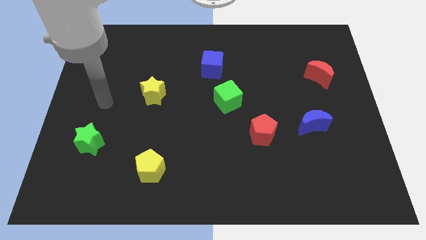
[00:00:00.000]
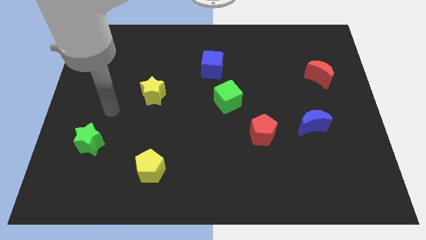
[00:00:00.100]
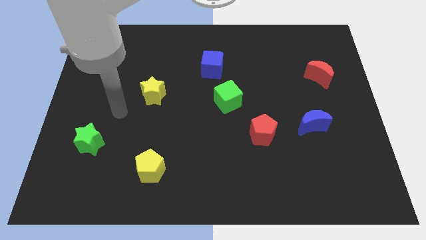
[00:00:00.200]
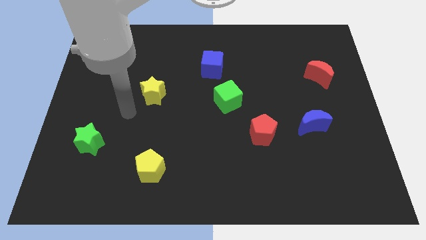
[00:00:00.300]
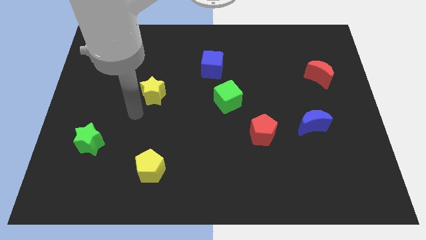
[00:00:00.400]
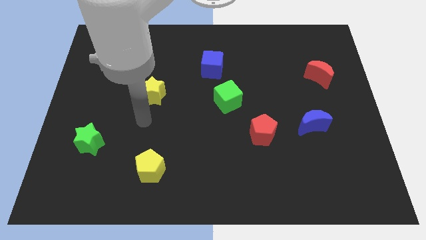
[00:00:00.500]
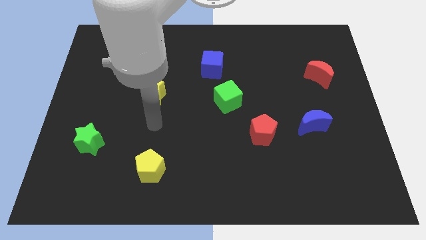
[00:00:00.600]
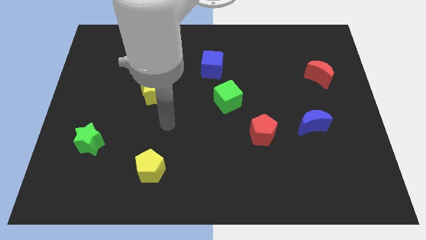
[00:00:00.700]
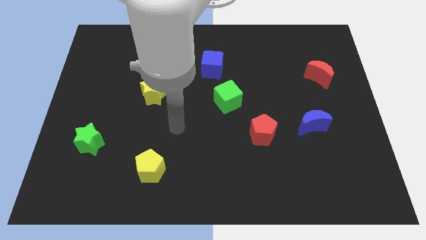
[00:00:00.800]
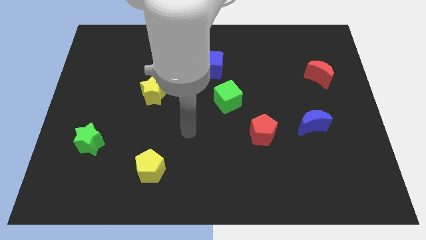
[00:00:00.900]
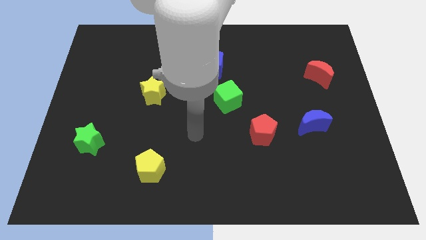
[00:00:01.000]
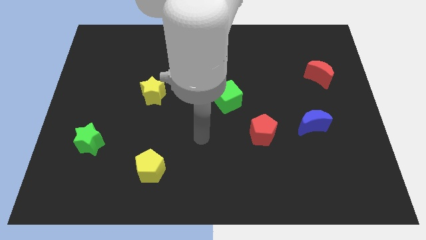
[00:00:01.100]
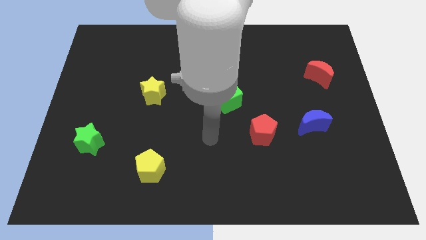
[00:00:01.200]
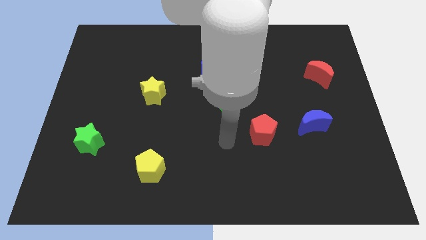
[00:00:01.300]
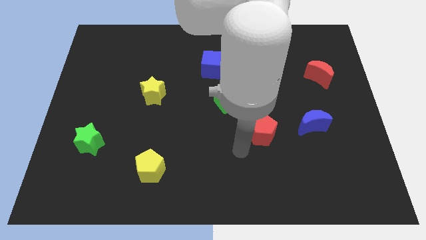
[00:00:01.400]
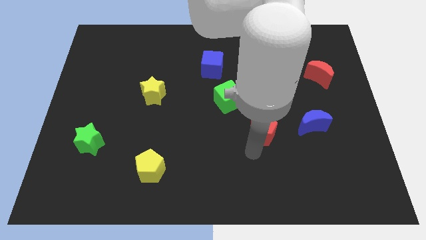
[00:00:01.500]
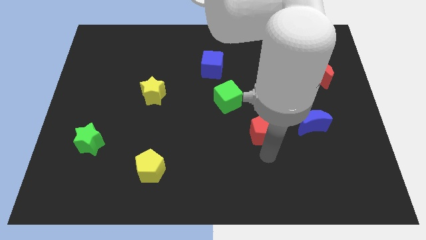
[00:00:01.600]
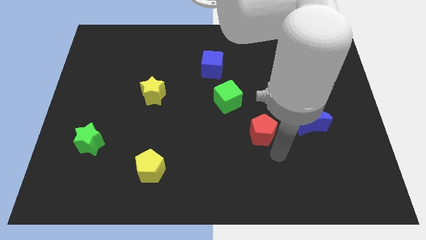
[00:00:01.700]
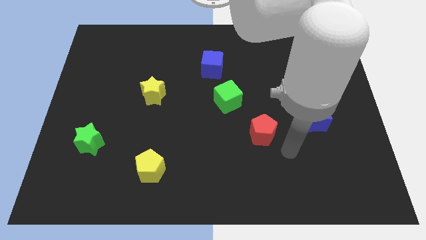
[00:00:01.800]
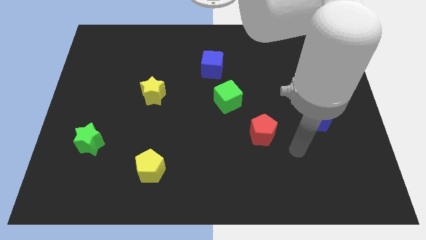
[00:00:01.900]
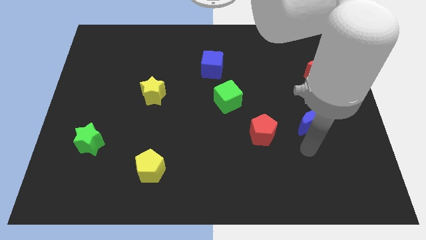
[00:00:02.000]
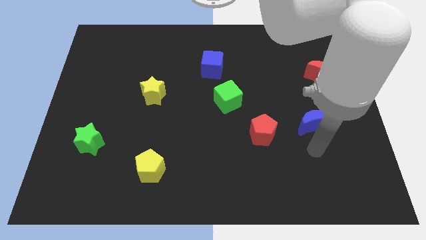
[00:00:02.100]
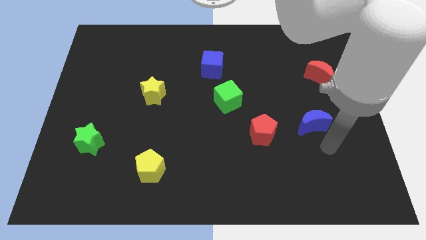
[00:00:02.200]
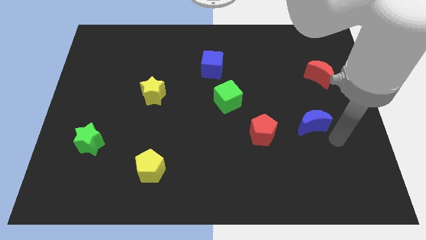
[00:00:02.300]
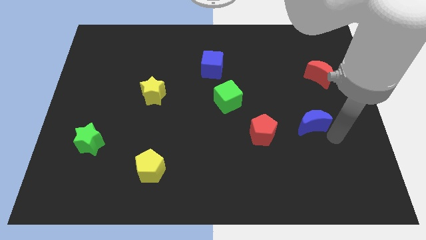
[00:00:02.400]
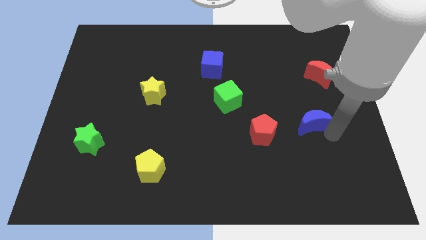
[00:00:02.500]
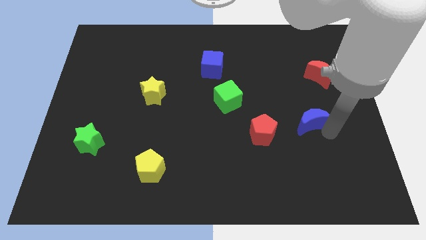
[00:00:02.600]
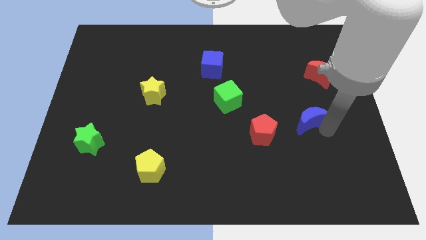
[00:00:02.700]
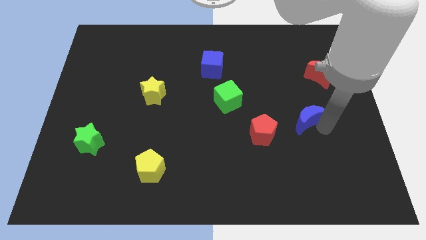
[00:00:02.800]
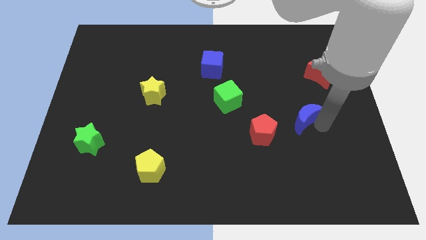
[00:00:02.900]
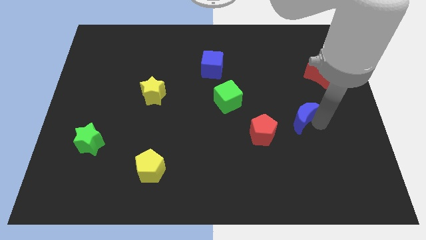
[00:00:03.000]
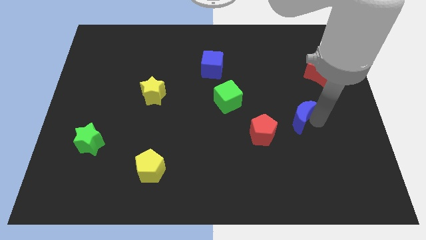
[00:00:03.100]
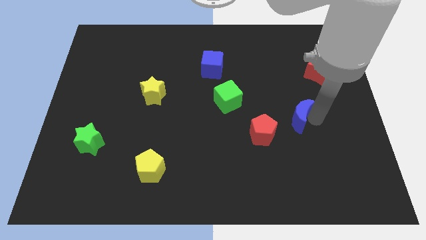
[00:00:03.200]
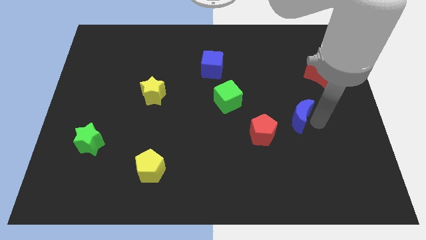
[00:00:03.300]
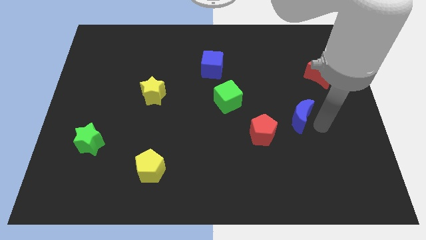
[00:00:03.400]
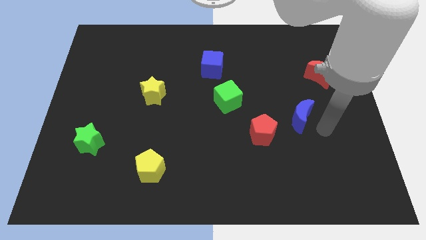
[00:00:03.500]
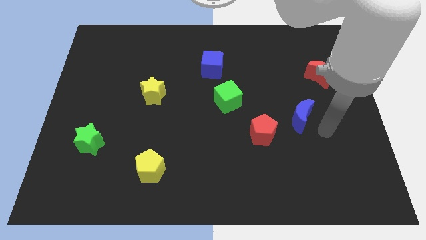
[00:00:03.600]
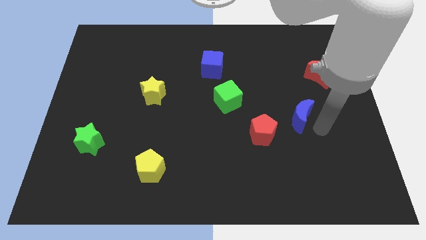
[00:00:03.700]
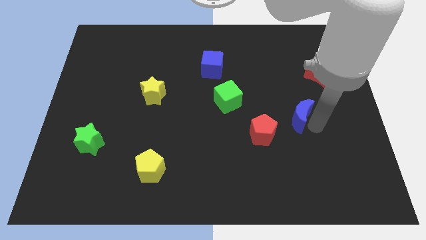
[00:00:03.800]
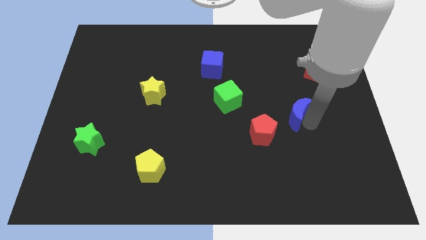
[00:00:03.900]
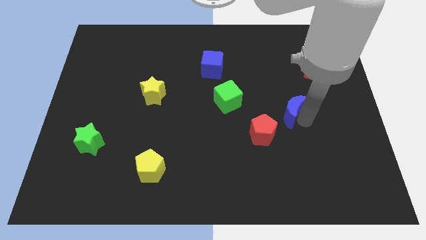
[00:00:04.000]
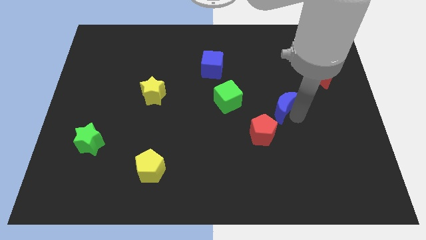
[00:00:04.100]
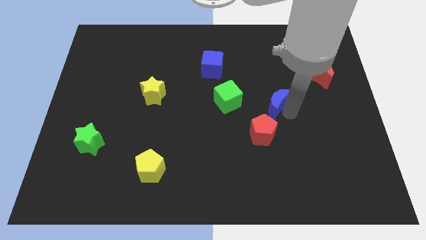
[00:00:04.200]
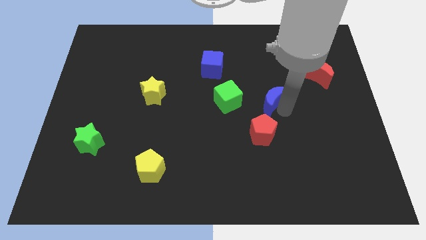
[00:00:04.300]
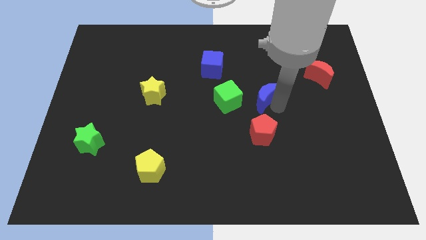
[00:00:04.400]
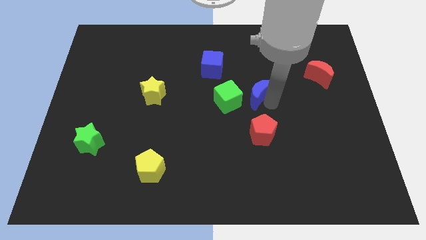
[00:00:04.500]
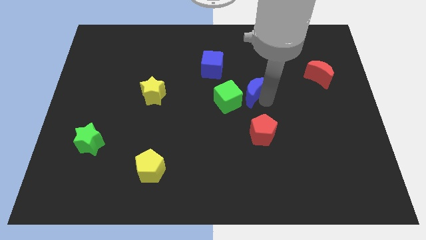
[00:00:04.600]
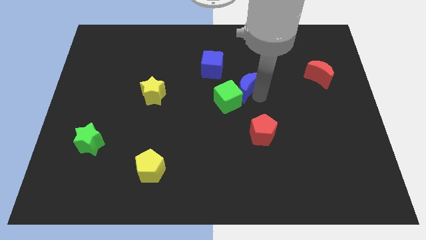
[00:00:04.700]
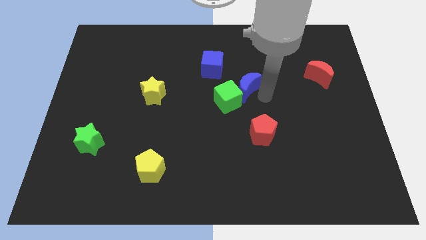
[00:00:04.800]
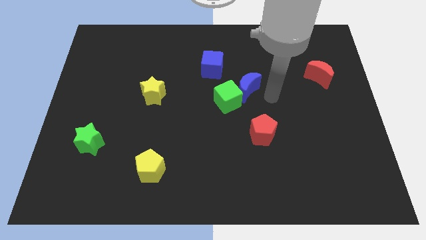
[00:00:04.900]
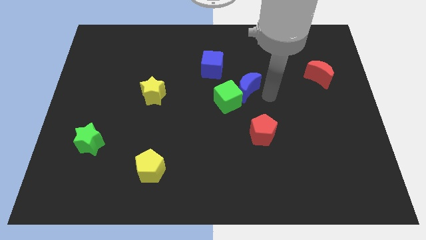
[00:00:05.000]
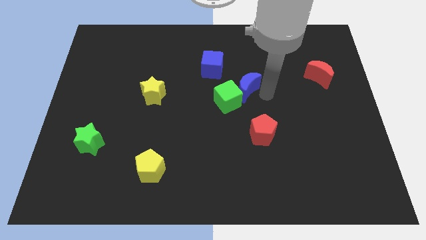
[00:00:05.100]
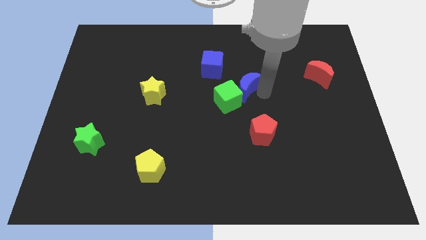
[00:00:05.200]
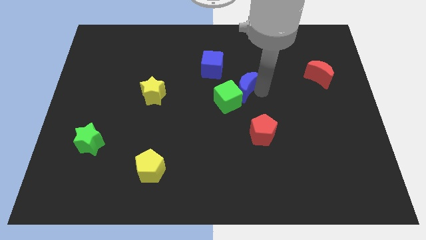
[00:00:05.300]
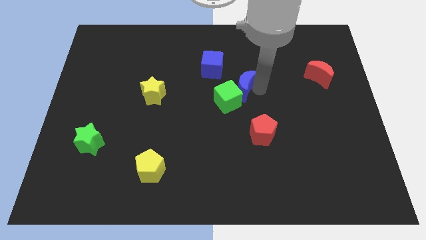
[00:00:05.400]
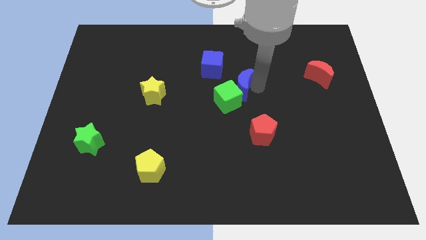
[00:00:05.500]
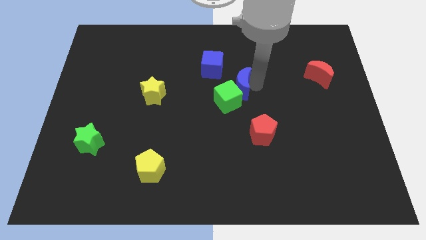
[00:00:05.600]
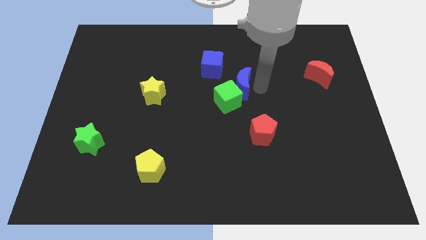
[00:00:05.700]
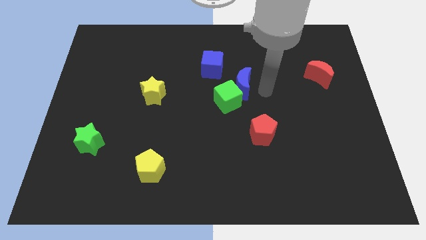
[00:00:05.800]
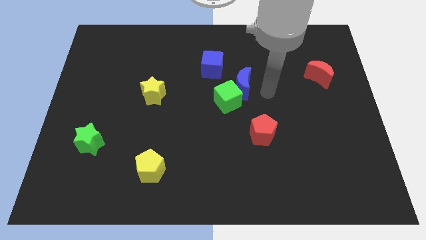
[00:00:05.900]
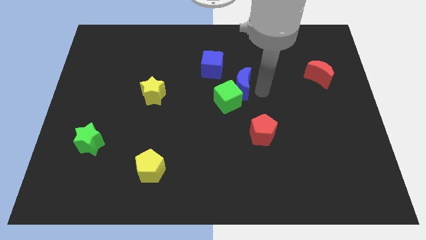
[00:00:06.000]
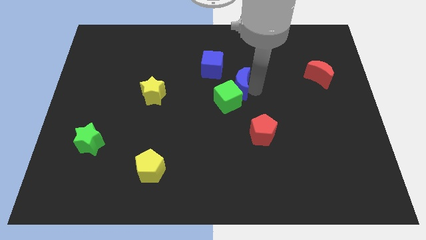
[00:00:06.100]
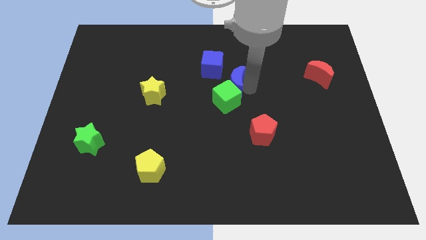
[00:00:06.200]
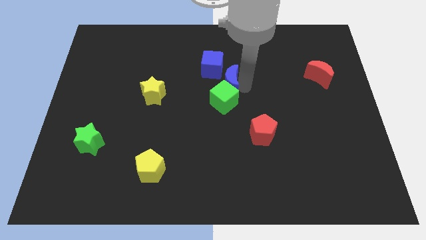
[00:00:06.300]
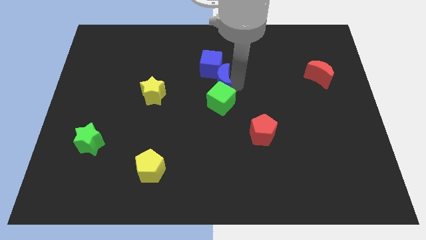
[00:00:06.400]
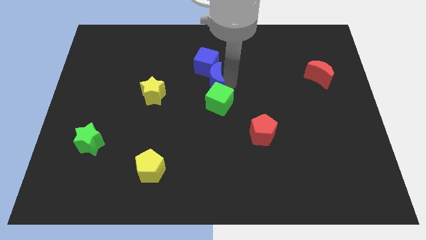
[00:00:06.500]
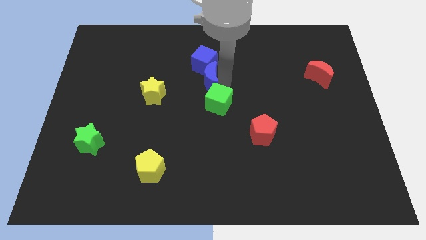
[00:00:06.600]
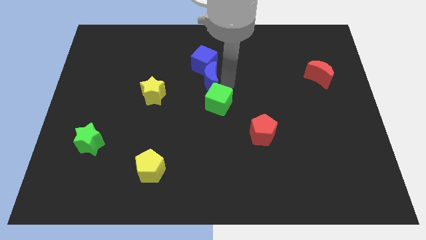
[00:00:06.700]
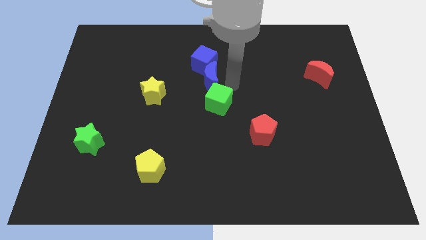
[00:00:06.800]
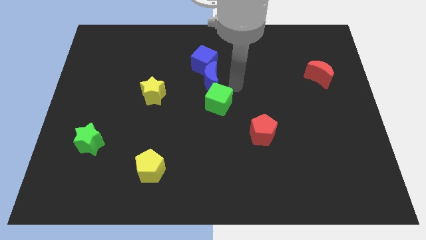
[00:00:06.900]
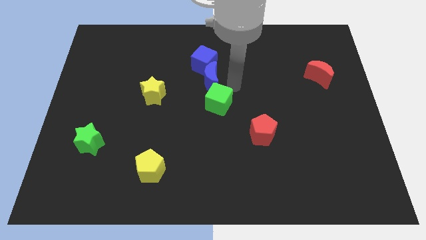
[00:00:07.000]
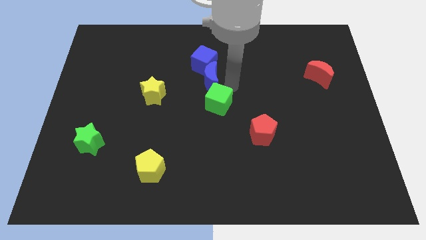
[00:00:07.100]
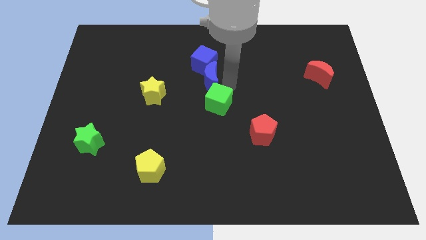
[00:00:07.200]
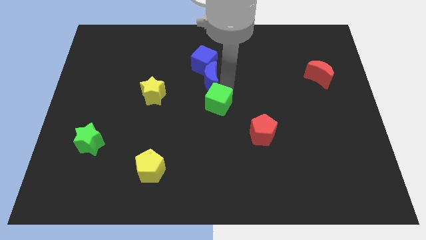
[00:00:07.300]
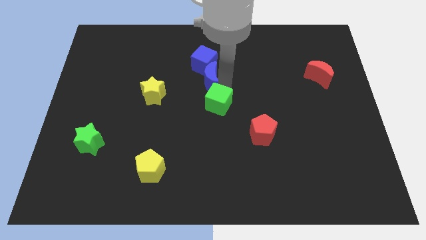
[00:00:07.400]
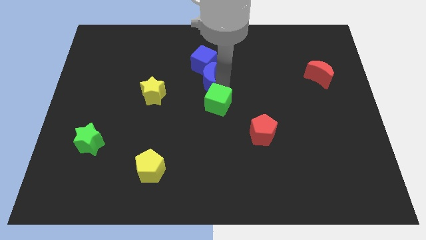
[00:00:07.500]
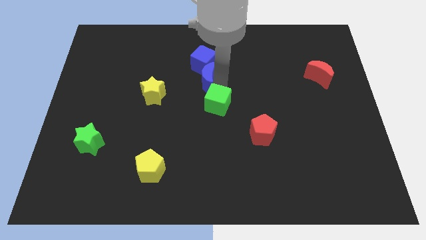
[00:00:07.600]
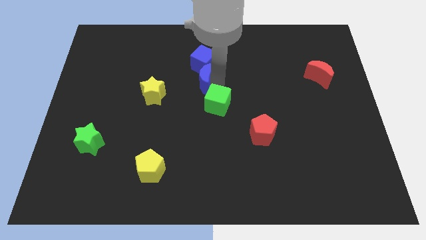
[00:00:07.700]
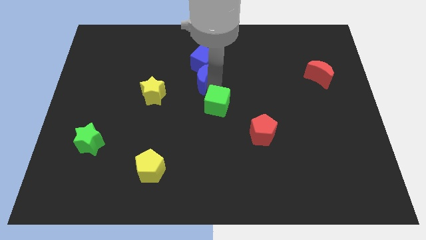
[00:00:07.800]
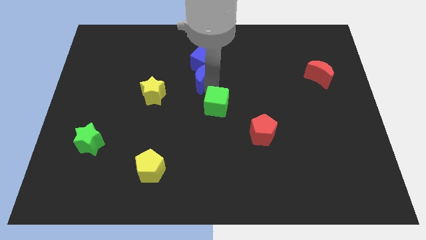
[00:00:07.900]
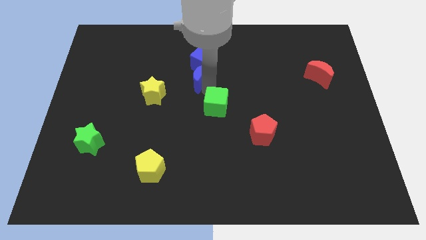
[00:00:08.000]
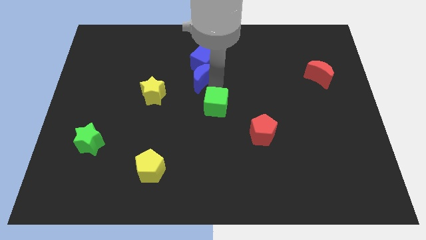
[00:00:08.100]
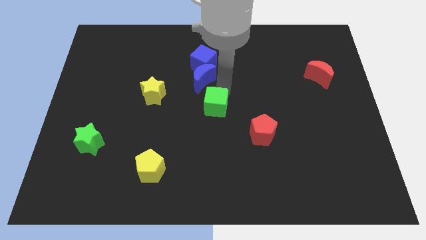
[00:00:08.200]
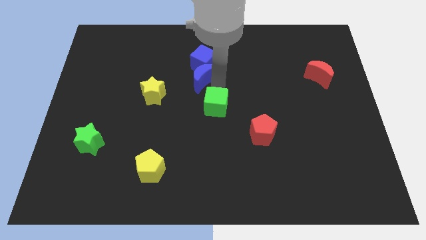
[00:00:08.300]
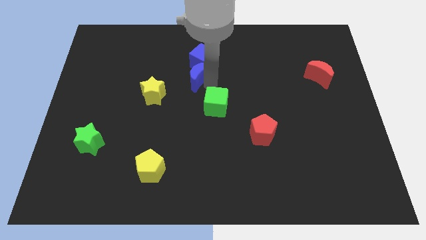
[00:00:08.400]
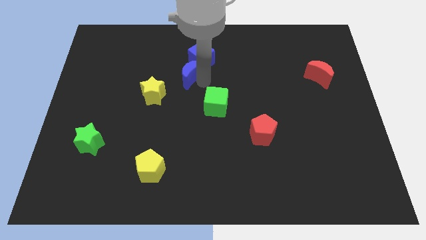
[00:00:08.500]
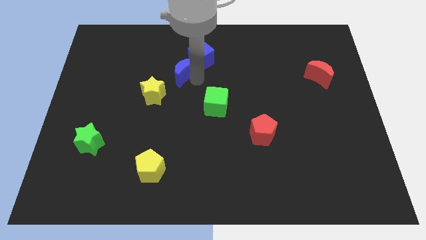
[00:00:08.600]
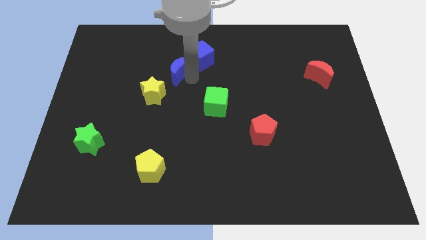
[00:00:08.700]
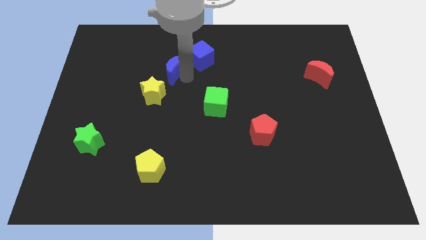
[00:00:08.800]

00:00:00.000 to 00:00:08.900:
put the blue moon to the top side of the yellow star
